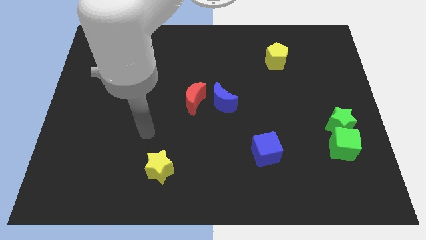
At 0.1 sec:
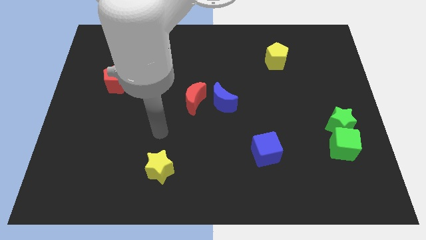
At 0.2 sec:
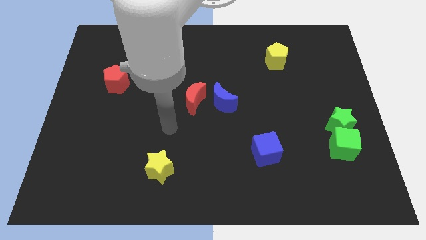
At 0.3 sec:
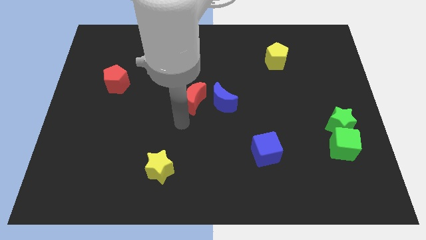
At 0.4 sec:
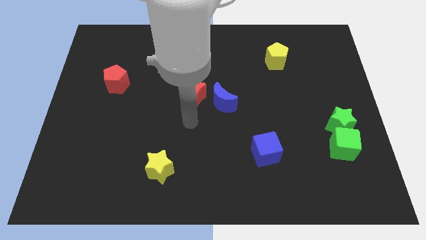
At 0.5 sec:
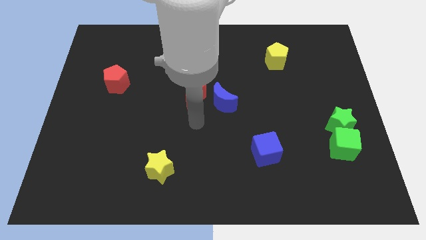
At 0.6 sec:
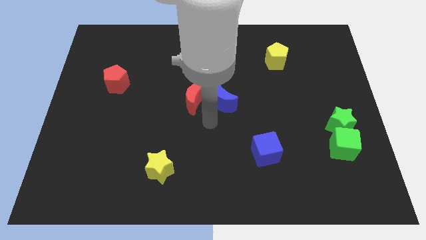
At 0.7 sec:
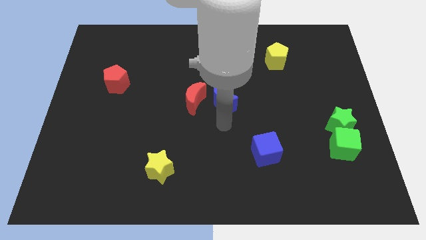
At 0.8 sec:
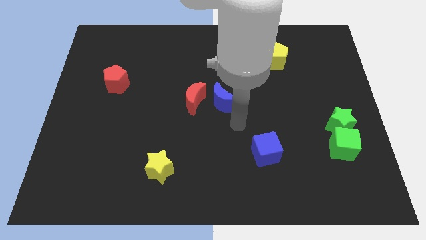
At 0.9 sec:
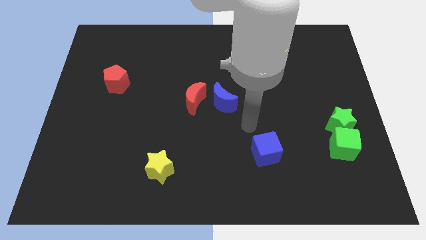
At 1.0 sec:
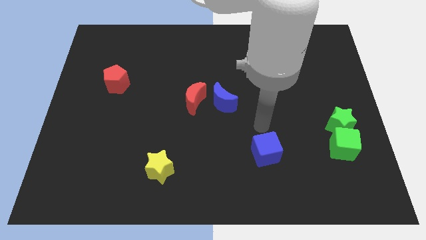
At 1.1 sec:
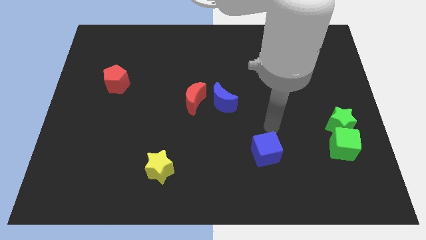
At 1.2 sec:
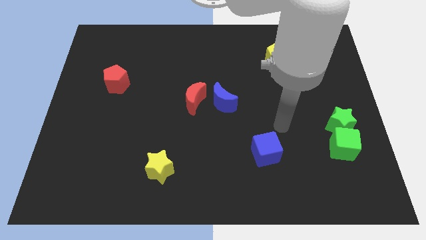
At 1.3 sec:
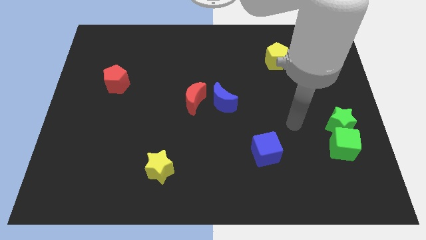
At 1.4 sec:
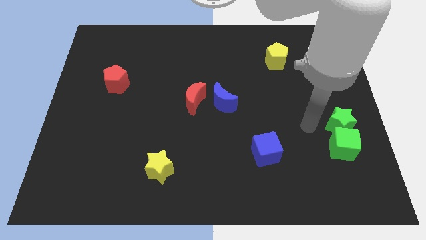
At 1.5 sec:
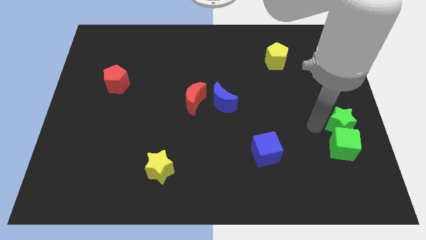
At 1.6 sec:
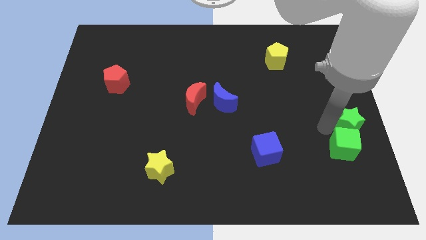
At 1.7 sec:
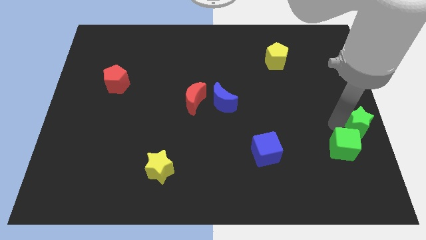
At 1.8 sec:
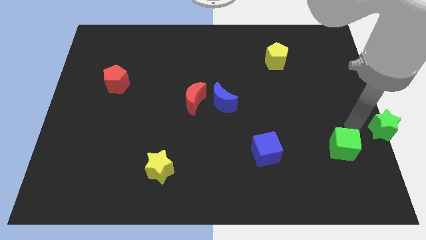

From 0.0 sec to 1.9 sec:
pull the green cube apart from the green star

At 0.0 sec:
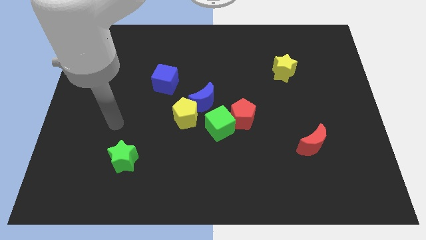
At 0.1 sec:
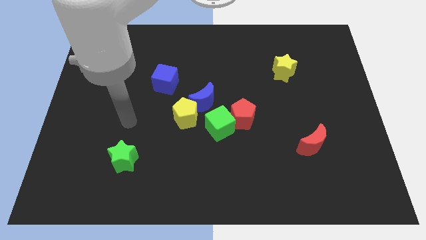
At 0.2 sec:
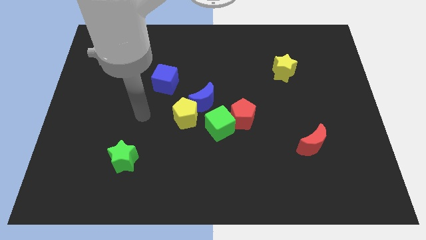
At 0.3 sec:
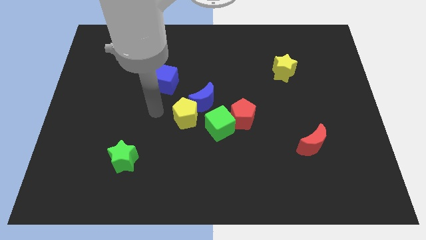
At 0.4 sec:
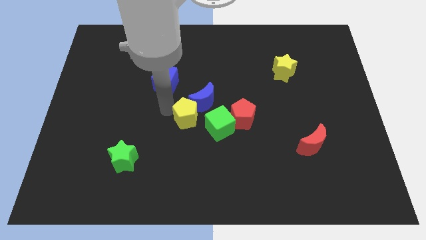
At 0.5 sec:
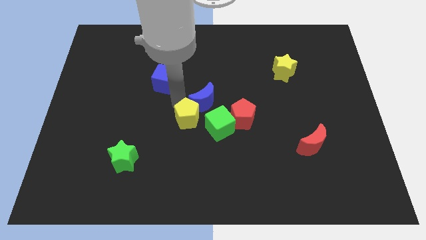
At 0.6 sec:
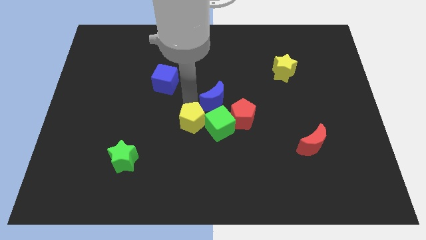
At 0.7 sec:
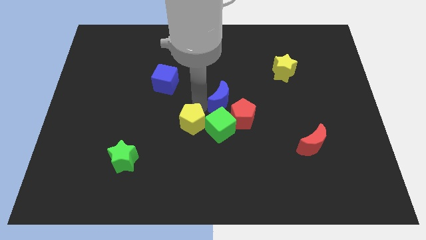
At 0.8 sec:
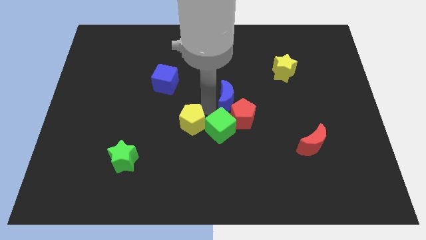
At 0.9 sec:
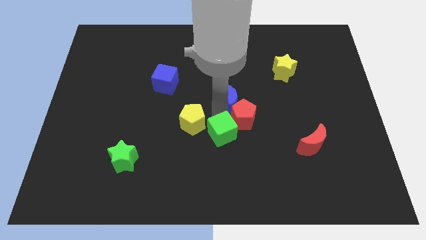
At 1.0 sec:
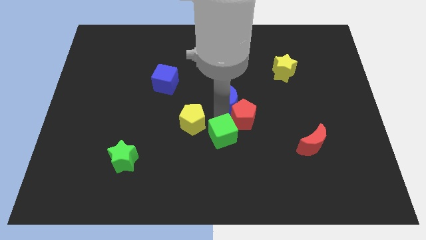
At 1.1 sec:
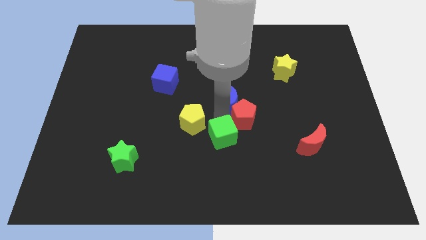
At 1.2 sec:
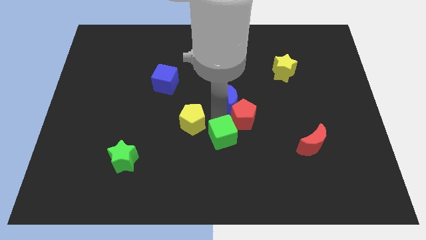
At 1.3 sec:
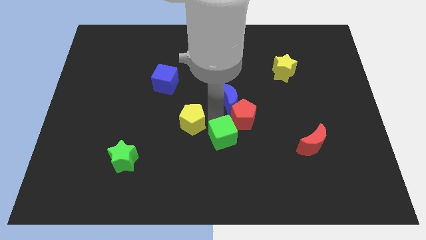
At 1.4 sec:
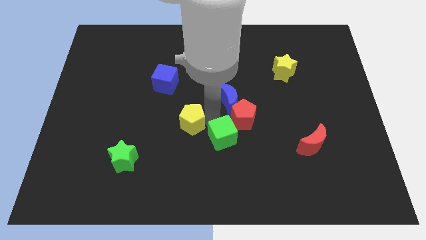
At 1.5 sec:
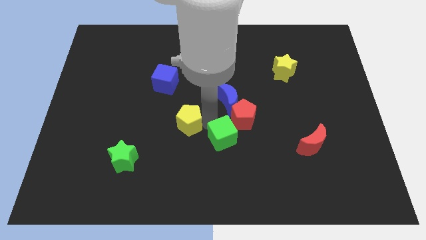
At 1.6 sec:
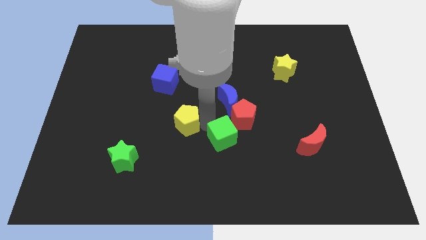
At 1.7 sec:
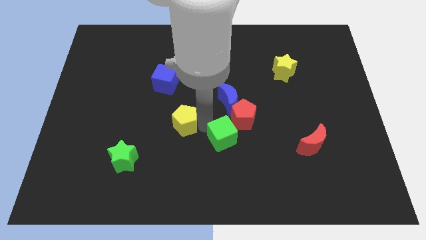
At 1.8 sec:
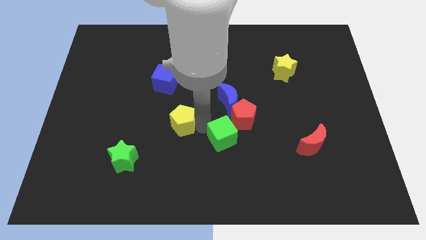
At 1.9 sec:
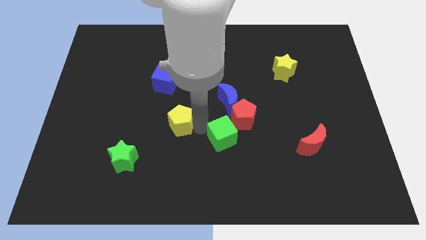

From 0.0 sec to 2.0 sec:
move the yellow pentagon away from the blue moon and green cube

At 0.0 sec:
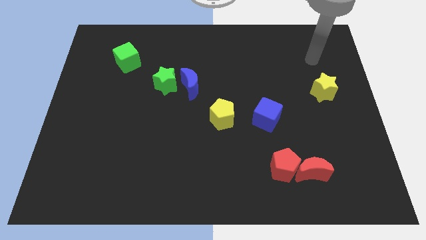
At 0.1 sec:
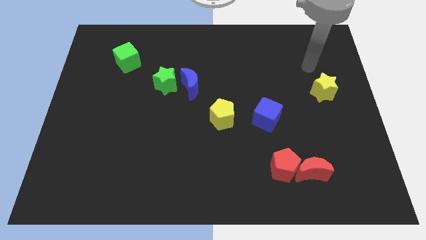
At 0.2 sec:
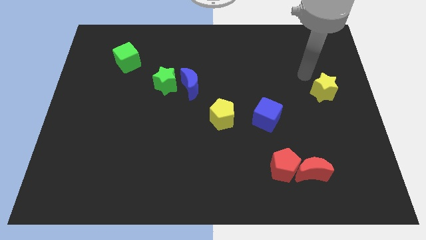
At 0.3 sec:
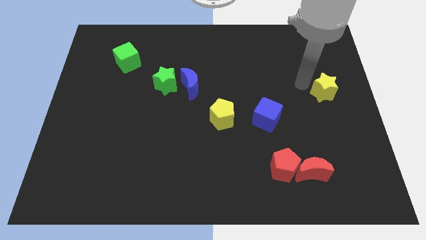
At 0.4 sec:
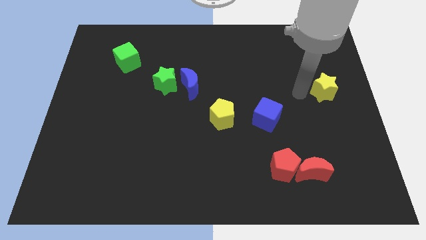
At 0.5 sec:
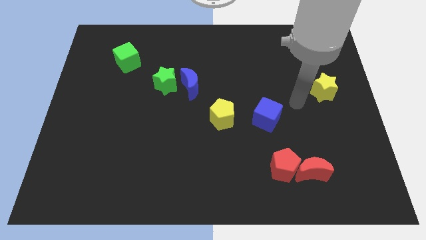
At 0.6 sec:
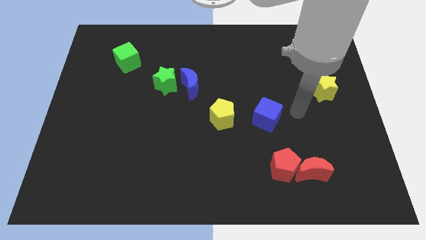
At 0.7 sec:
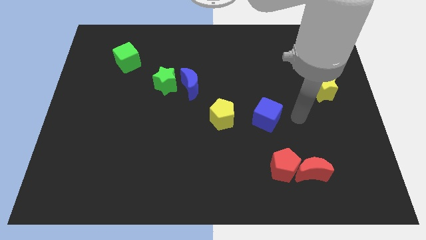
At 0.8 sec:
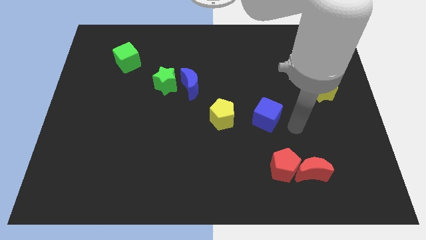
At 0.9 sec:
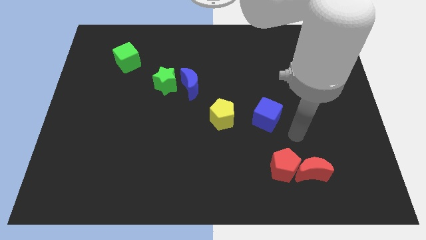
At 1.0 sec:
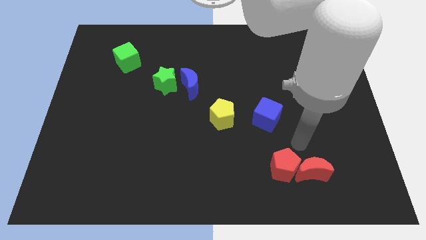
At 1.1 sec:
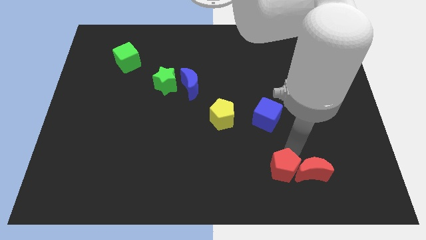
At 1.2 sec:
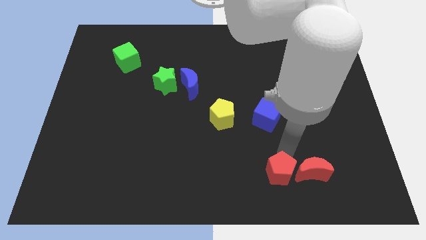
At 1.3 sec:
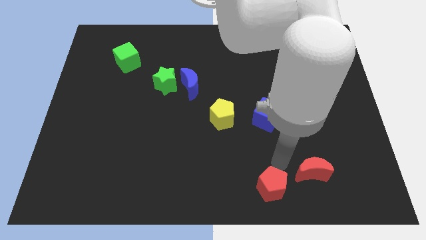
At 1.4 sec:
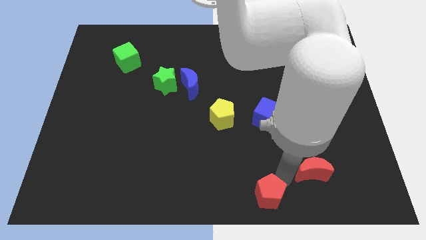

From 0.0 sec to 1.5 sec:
pull the red moon apart from the red pentagon

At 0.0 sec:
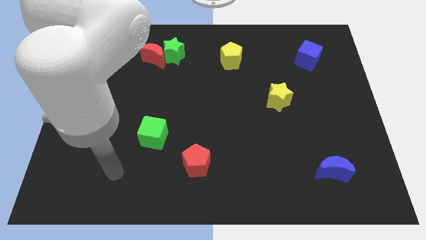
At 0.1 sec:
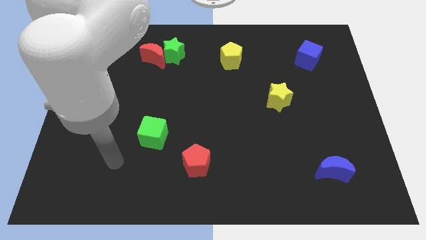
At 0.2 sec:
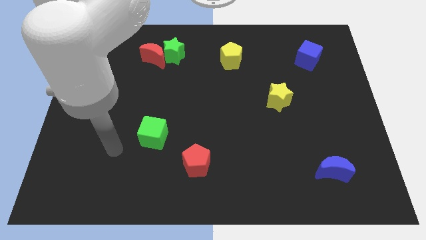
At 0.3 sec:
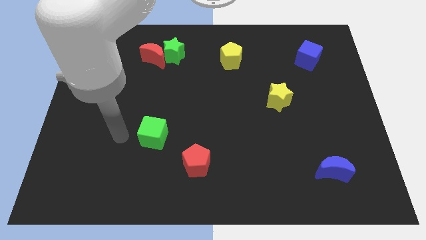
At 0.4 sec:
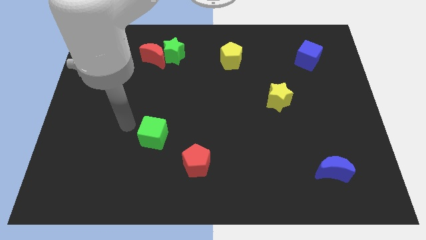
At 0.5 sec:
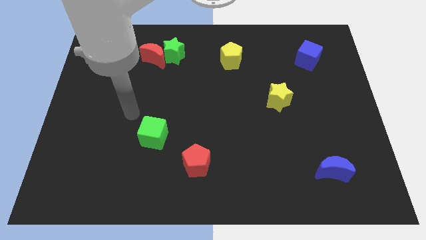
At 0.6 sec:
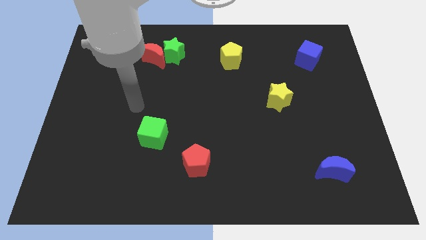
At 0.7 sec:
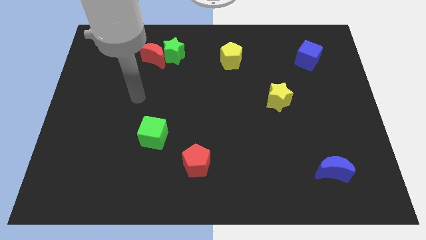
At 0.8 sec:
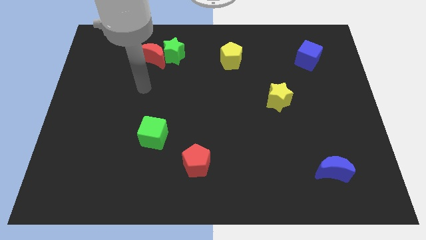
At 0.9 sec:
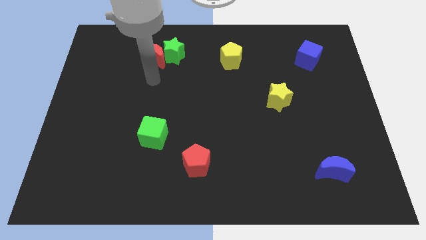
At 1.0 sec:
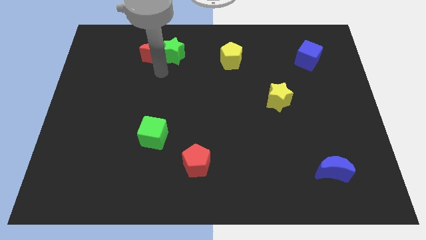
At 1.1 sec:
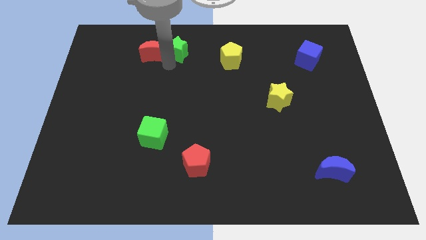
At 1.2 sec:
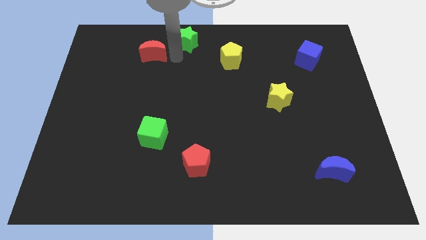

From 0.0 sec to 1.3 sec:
move the red moon away from the green star

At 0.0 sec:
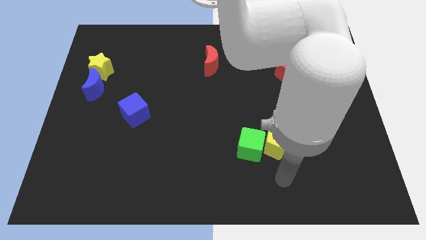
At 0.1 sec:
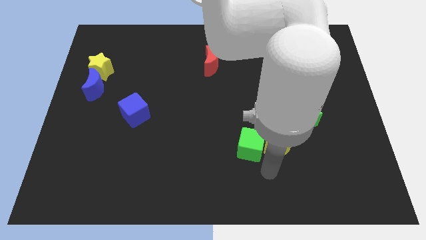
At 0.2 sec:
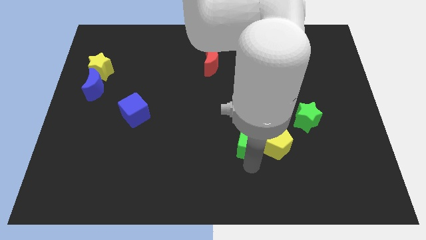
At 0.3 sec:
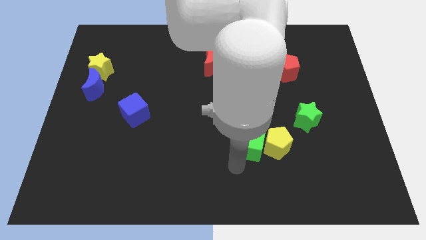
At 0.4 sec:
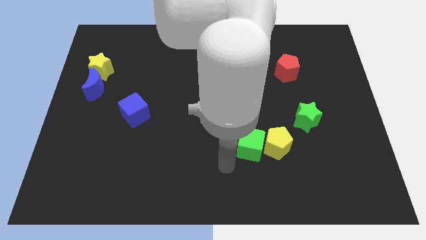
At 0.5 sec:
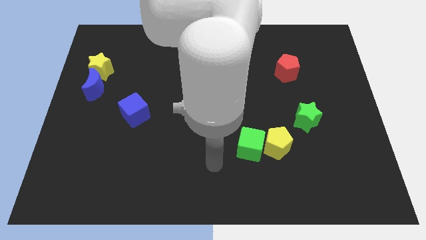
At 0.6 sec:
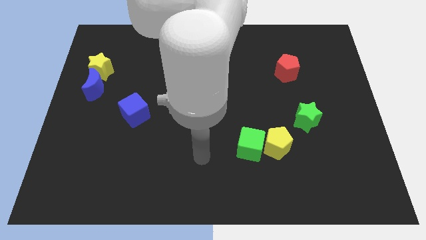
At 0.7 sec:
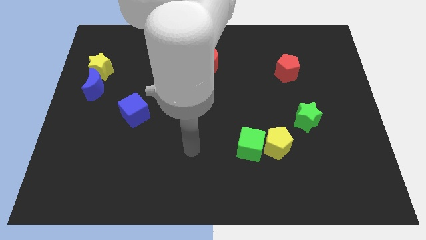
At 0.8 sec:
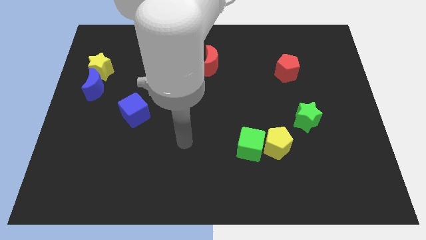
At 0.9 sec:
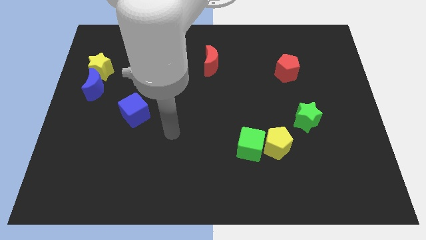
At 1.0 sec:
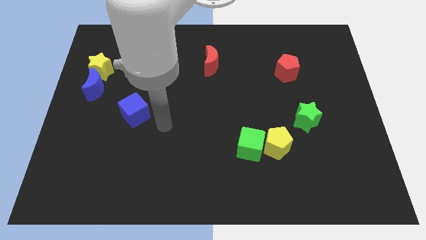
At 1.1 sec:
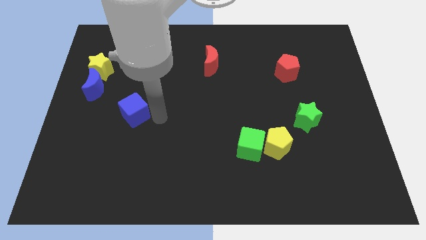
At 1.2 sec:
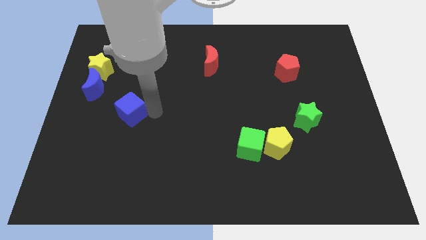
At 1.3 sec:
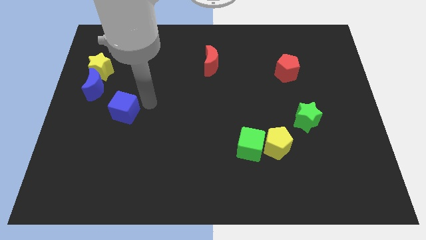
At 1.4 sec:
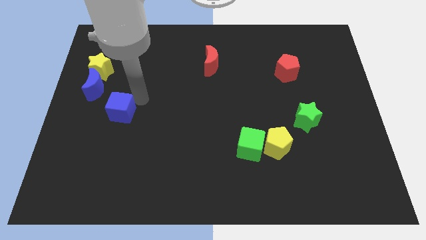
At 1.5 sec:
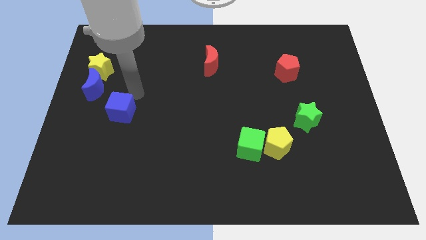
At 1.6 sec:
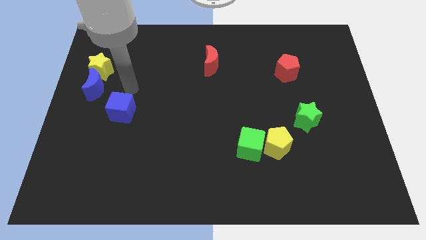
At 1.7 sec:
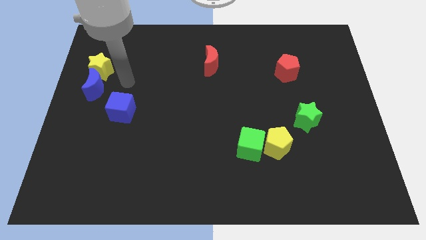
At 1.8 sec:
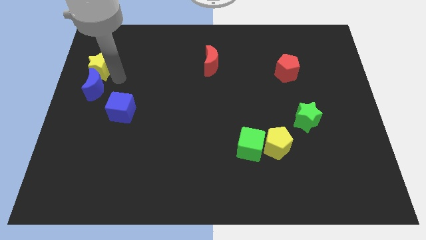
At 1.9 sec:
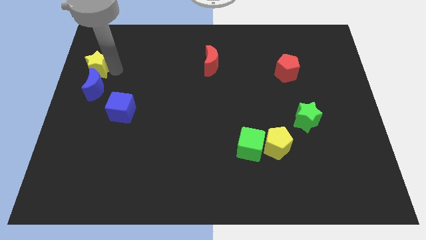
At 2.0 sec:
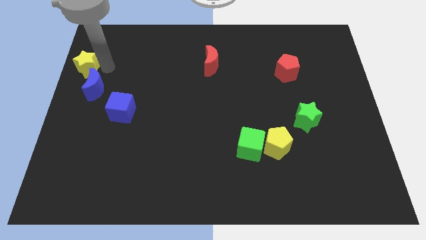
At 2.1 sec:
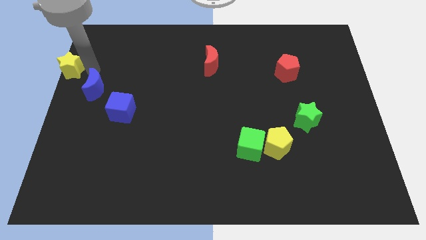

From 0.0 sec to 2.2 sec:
pull the blue moon apart from the yellow star

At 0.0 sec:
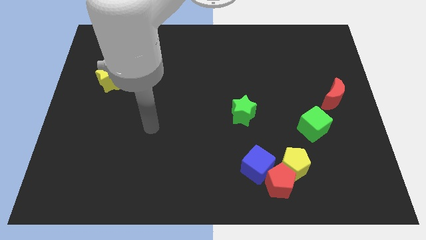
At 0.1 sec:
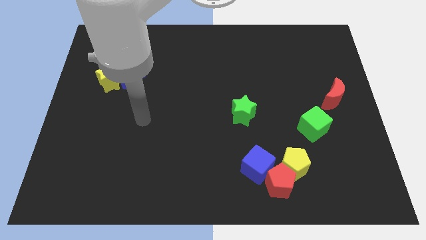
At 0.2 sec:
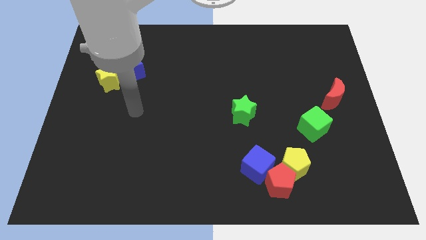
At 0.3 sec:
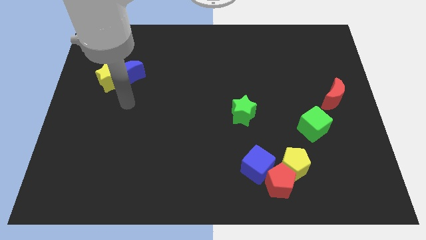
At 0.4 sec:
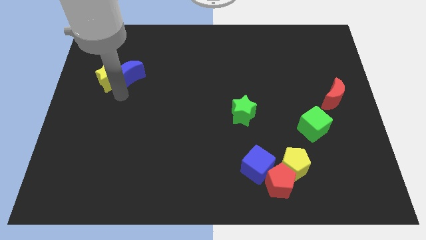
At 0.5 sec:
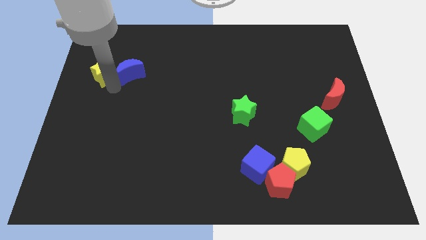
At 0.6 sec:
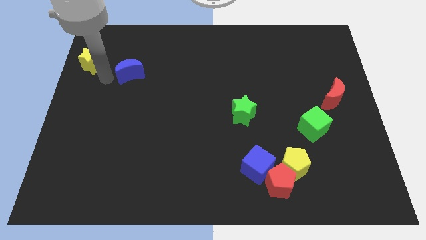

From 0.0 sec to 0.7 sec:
move the blue moon away from the yellow star
